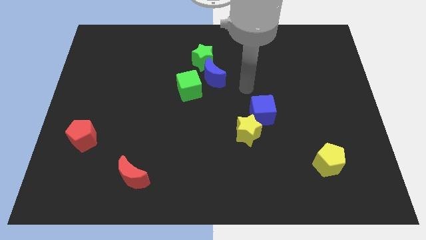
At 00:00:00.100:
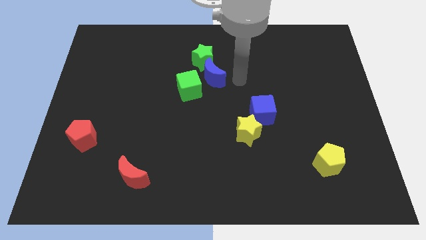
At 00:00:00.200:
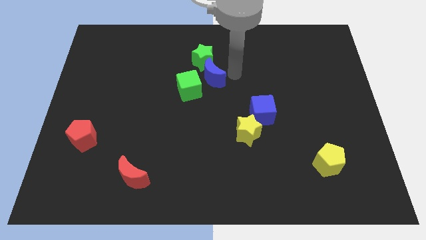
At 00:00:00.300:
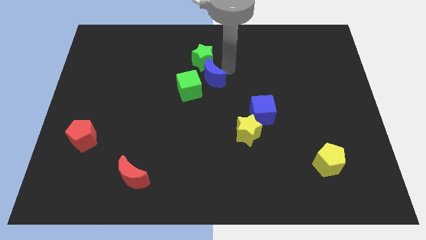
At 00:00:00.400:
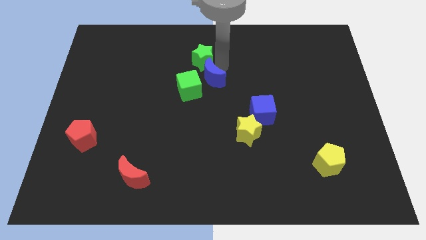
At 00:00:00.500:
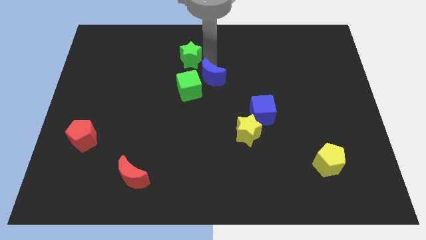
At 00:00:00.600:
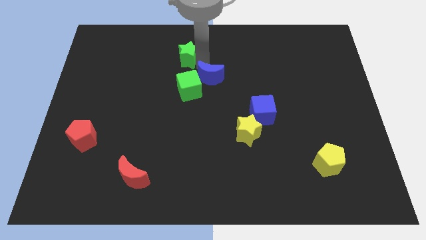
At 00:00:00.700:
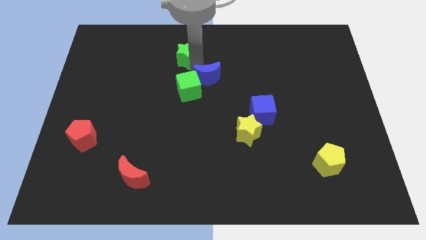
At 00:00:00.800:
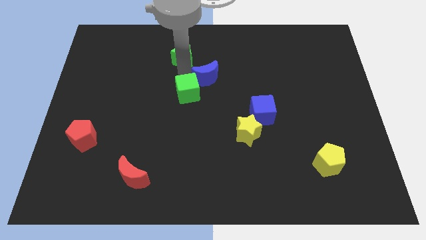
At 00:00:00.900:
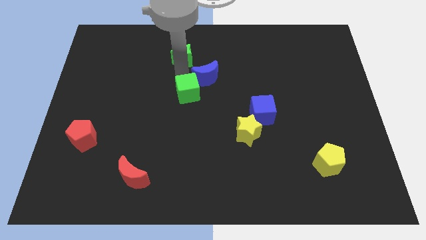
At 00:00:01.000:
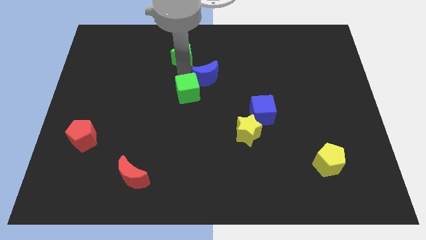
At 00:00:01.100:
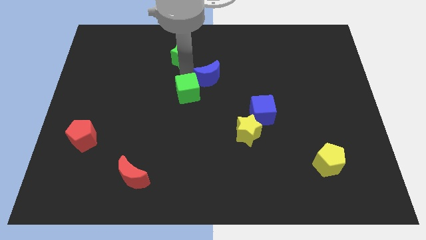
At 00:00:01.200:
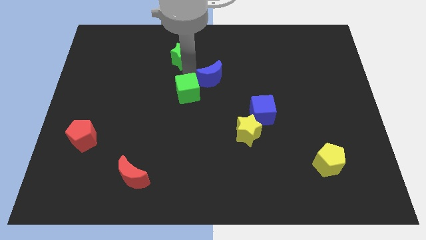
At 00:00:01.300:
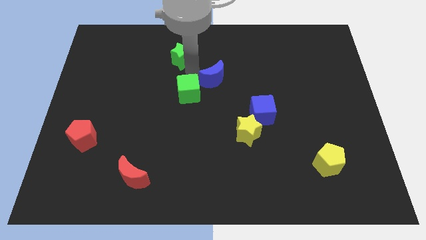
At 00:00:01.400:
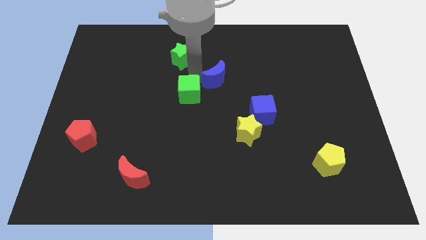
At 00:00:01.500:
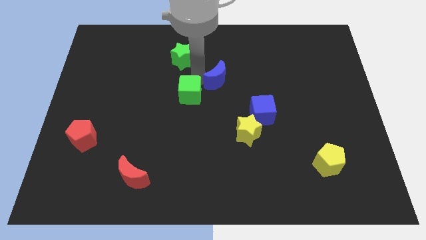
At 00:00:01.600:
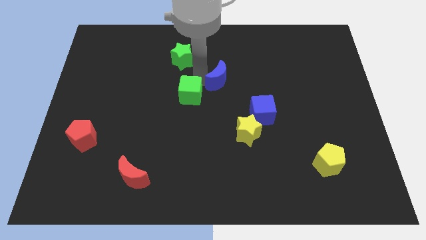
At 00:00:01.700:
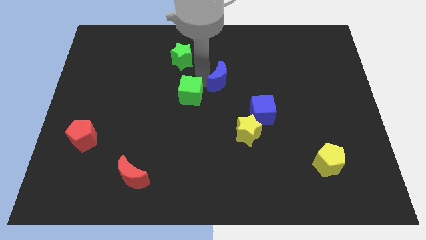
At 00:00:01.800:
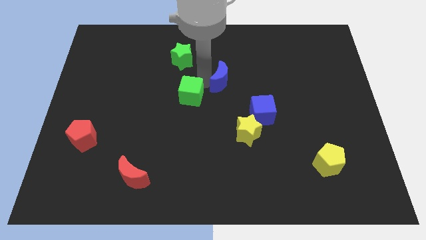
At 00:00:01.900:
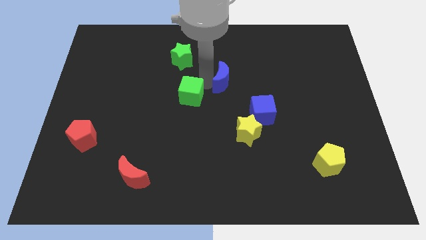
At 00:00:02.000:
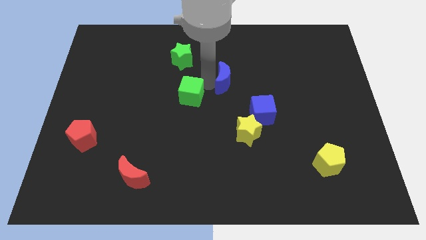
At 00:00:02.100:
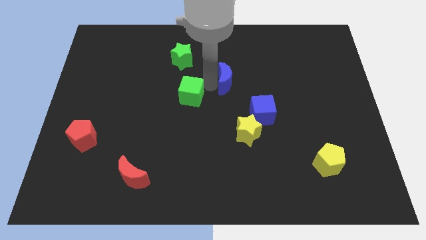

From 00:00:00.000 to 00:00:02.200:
move the blue moon away from the green star and green cube

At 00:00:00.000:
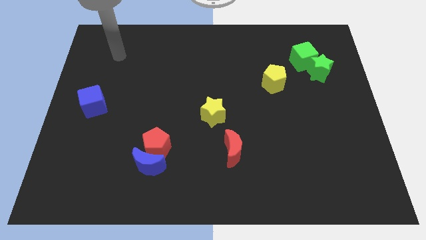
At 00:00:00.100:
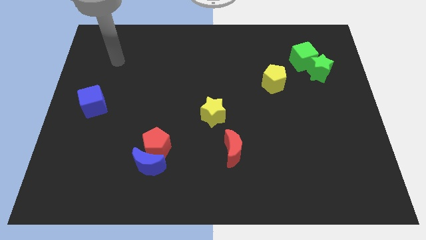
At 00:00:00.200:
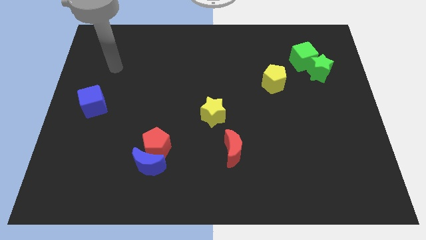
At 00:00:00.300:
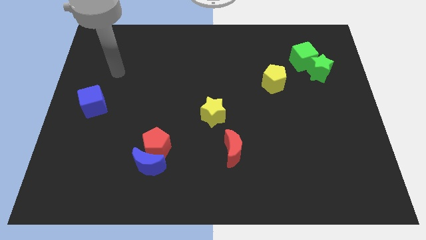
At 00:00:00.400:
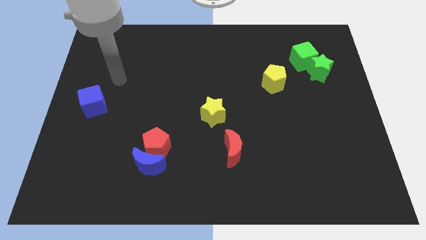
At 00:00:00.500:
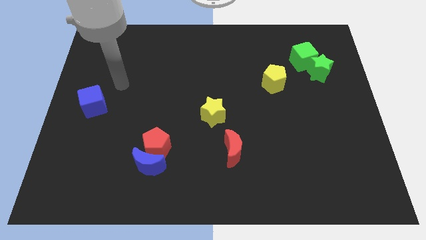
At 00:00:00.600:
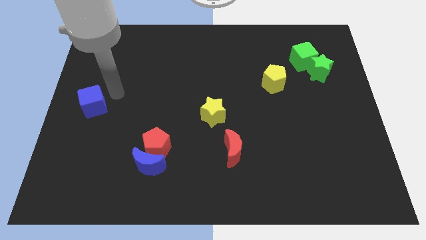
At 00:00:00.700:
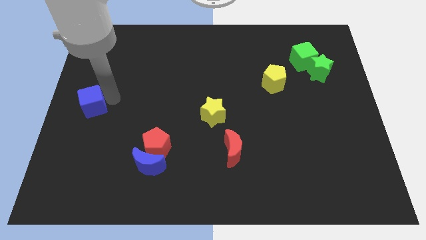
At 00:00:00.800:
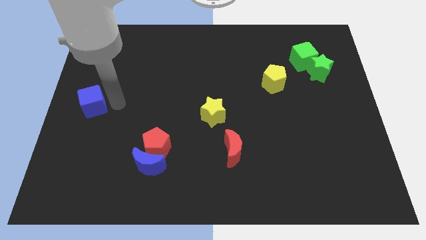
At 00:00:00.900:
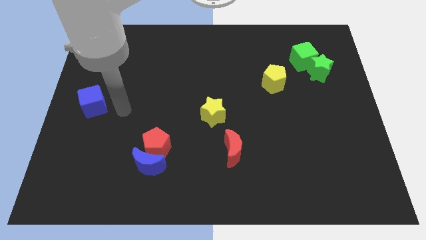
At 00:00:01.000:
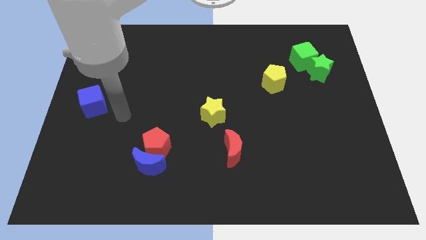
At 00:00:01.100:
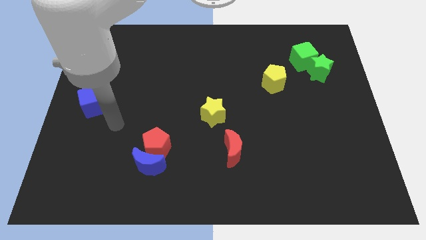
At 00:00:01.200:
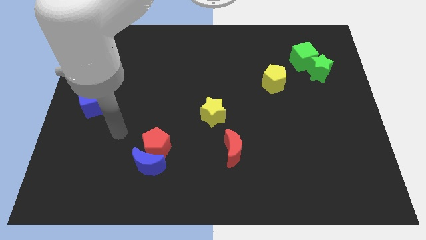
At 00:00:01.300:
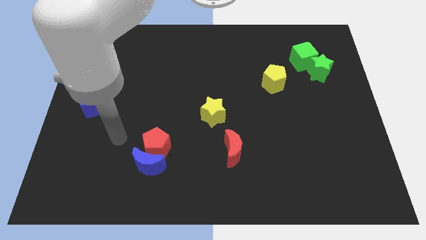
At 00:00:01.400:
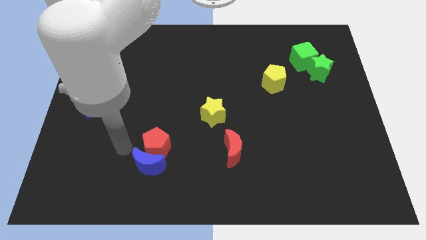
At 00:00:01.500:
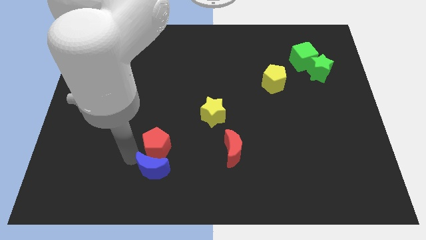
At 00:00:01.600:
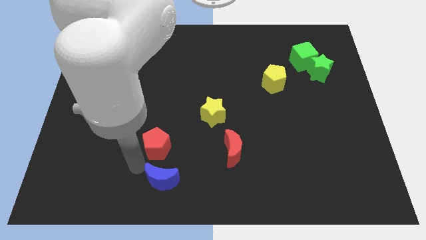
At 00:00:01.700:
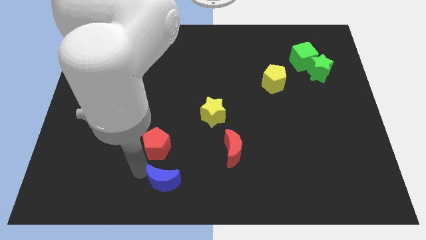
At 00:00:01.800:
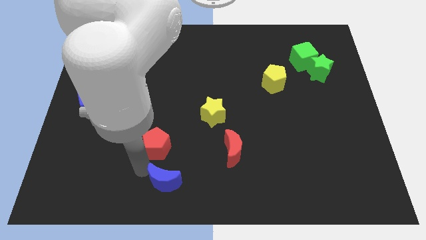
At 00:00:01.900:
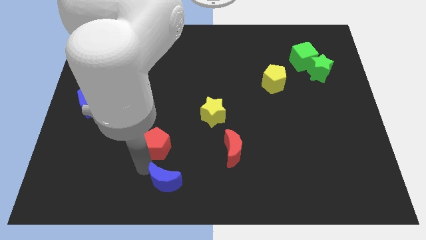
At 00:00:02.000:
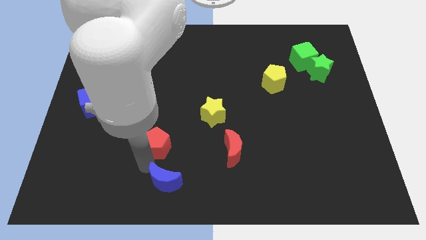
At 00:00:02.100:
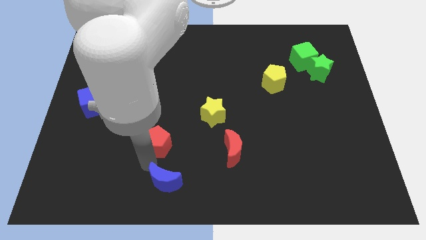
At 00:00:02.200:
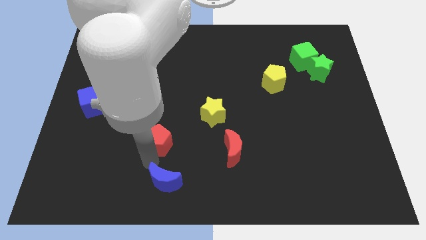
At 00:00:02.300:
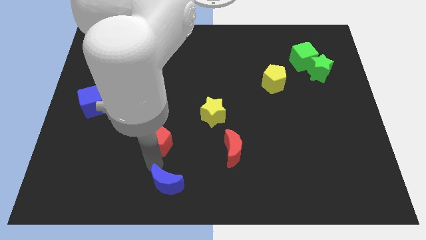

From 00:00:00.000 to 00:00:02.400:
separate the red pentagon from the blue moon

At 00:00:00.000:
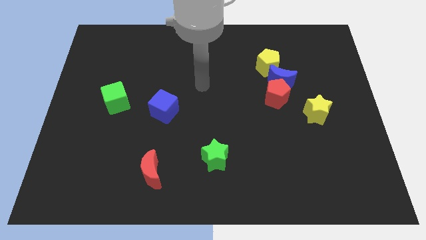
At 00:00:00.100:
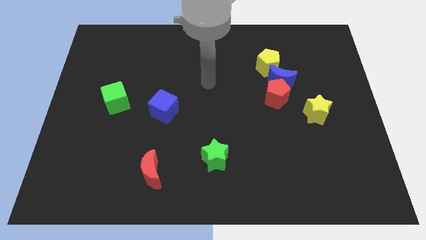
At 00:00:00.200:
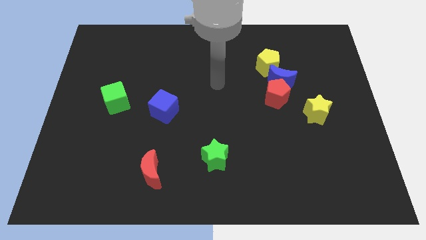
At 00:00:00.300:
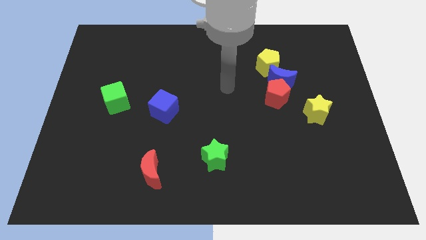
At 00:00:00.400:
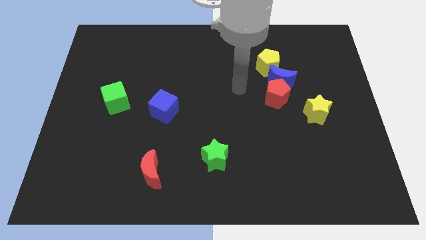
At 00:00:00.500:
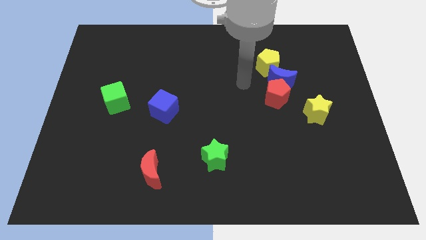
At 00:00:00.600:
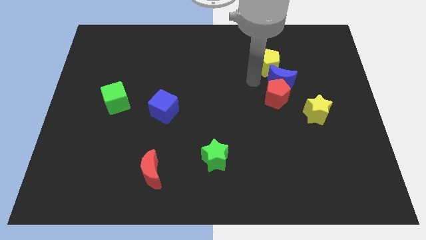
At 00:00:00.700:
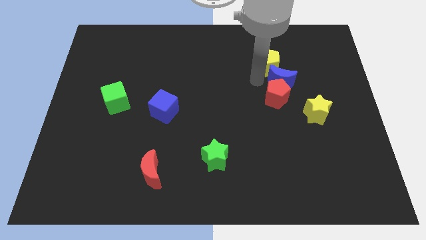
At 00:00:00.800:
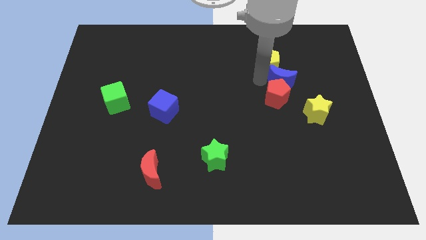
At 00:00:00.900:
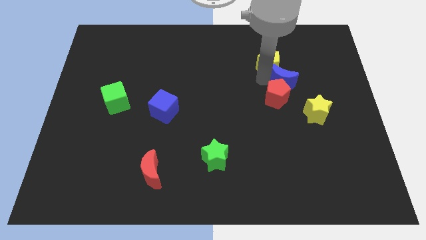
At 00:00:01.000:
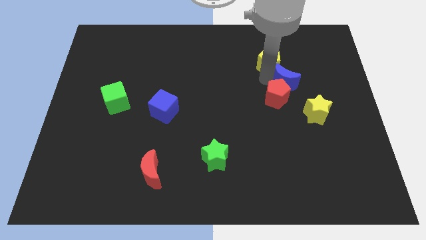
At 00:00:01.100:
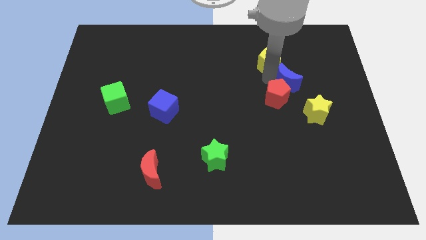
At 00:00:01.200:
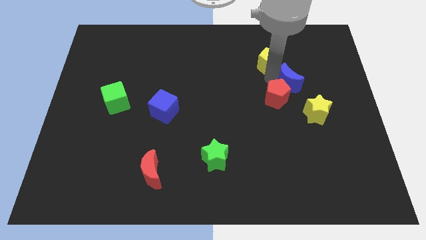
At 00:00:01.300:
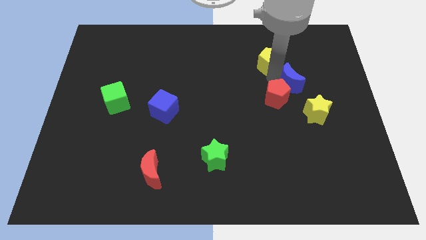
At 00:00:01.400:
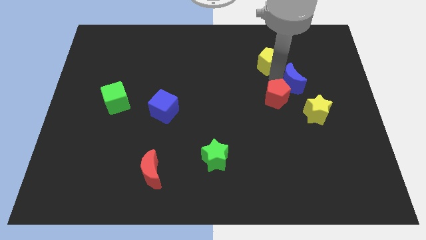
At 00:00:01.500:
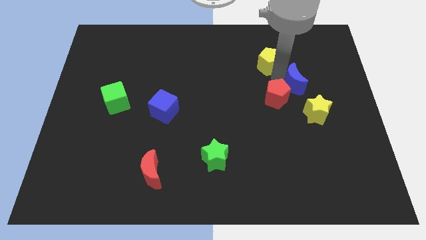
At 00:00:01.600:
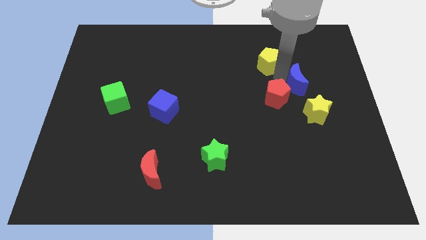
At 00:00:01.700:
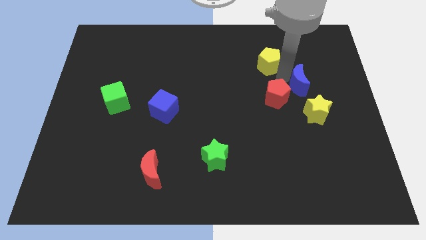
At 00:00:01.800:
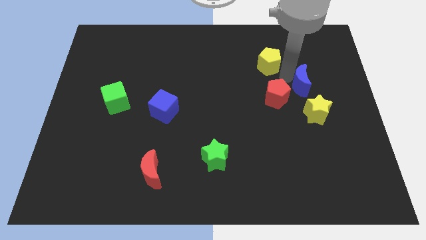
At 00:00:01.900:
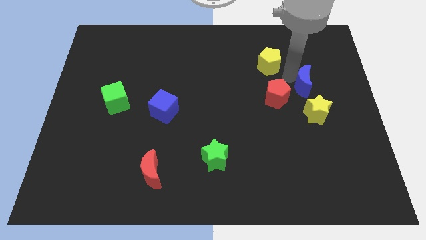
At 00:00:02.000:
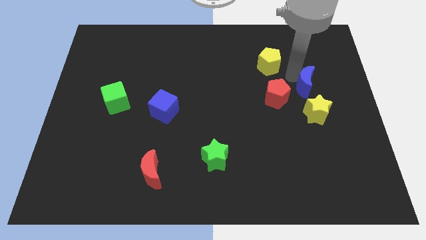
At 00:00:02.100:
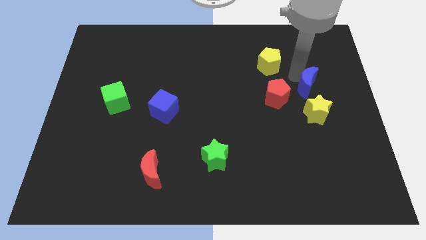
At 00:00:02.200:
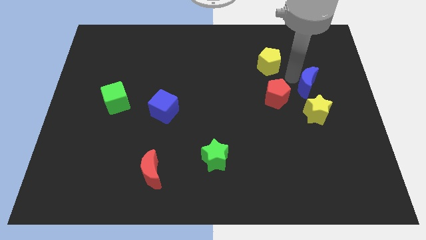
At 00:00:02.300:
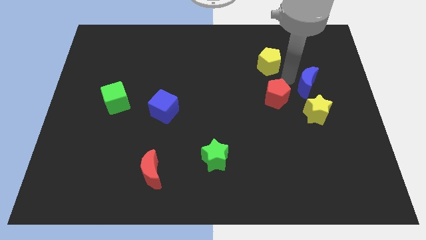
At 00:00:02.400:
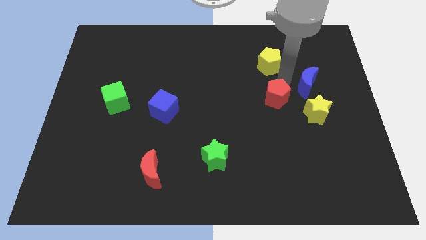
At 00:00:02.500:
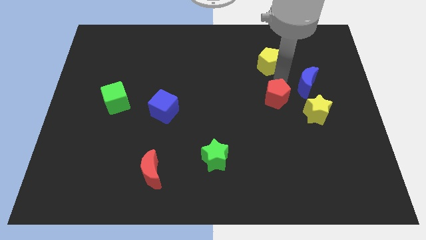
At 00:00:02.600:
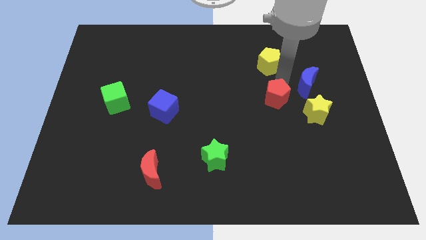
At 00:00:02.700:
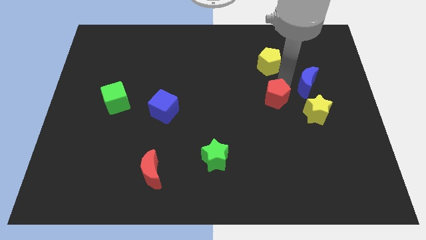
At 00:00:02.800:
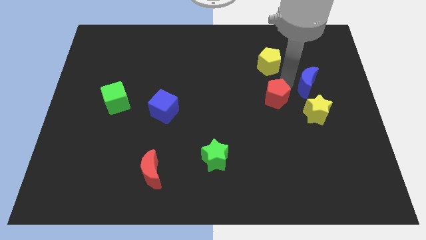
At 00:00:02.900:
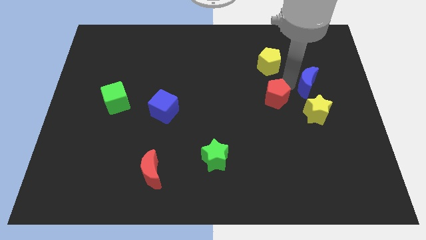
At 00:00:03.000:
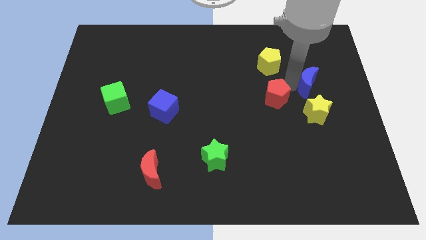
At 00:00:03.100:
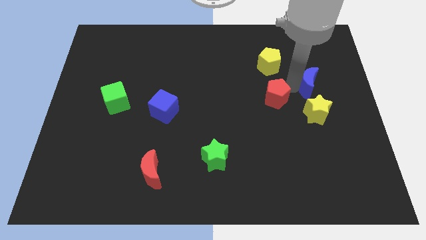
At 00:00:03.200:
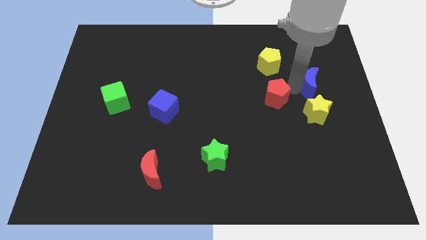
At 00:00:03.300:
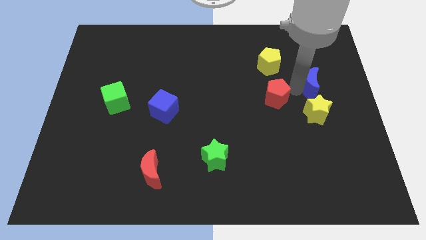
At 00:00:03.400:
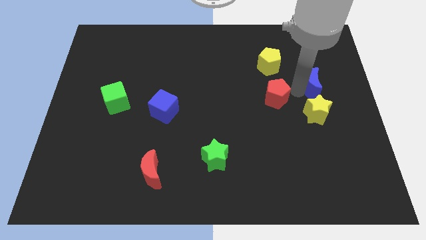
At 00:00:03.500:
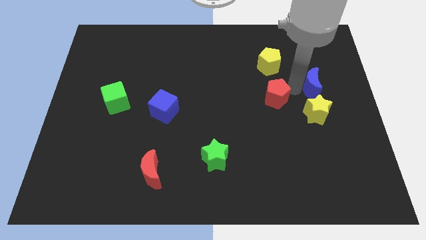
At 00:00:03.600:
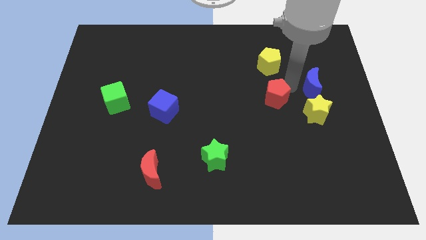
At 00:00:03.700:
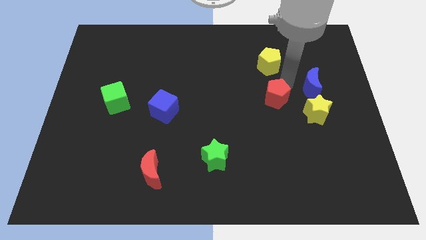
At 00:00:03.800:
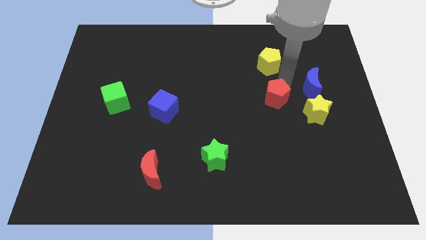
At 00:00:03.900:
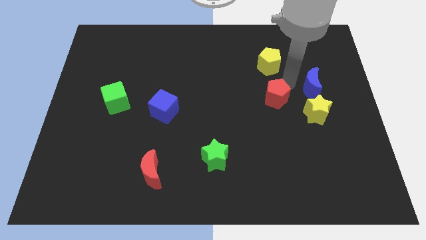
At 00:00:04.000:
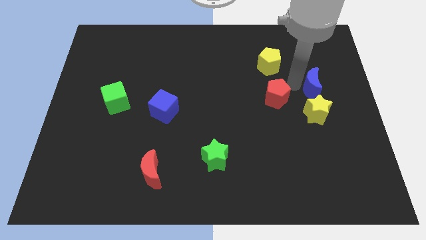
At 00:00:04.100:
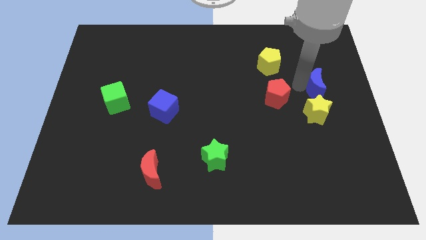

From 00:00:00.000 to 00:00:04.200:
move the blue moon away from the red pentagon and yellow pentagon

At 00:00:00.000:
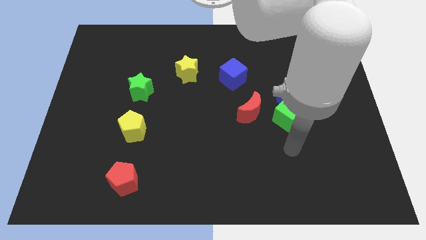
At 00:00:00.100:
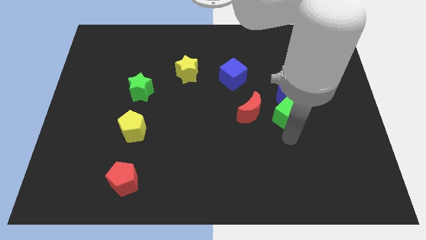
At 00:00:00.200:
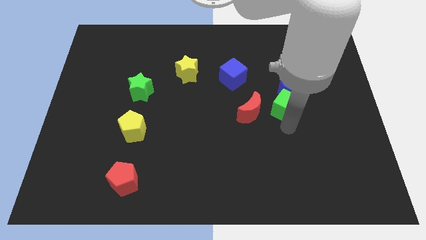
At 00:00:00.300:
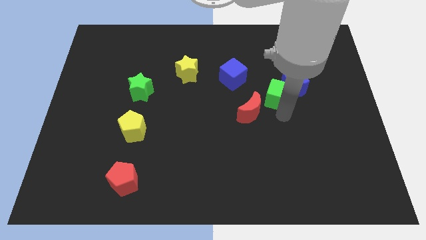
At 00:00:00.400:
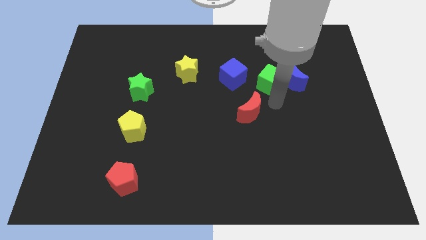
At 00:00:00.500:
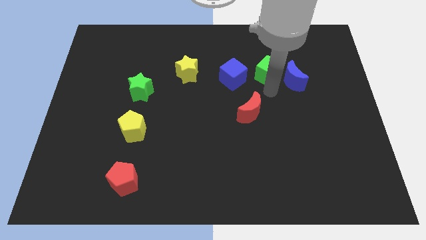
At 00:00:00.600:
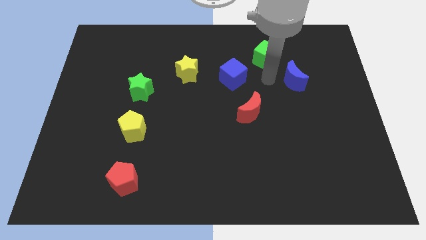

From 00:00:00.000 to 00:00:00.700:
separate the blue moon from the green cube
